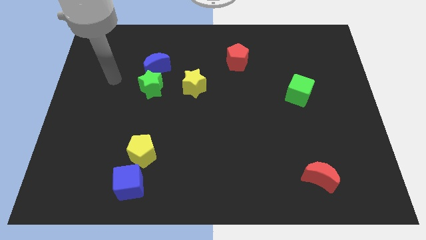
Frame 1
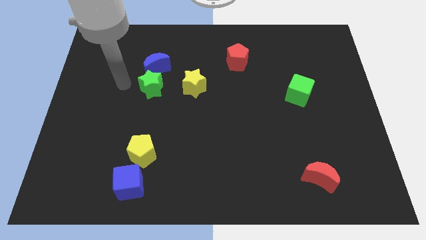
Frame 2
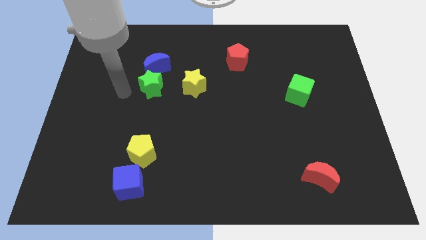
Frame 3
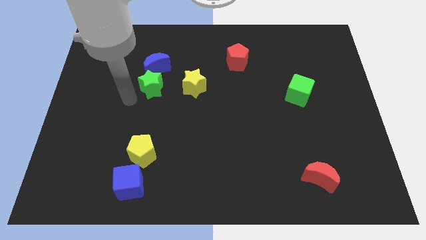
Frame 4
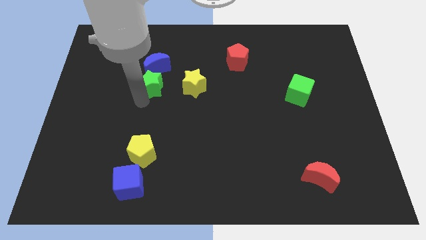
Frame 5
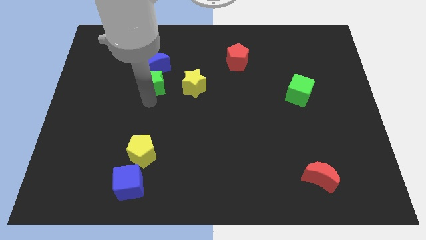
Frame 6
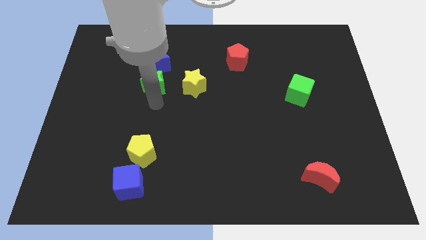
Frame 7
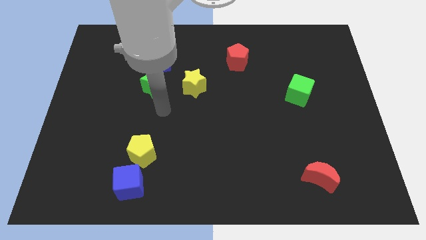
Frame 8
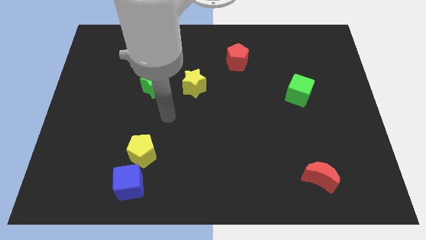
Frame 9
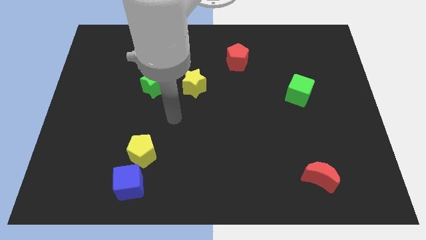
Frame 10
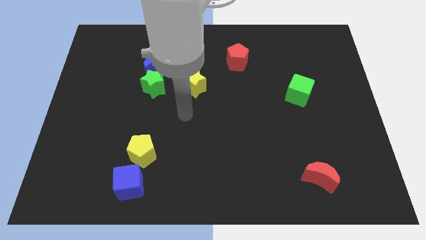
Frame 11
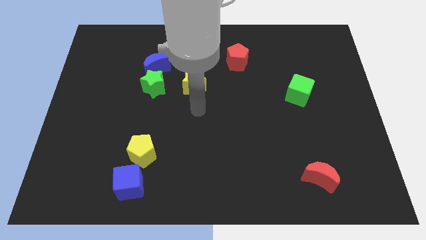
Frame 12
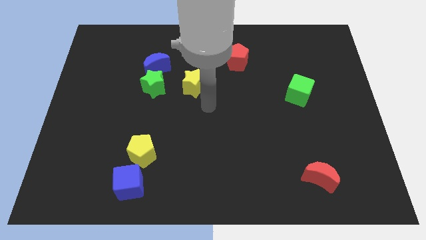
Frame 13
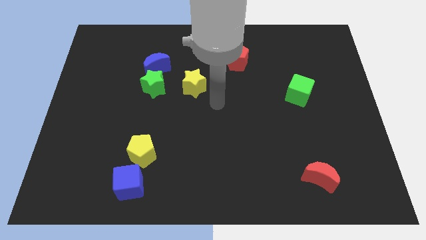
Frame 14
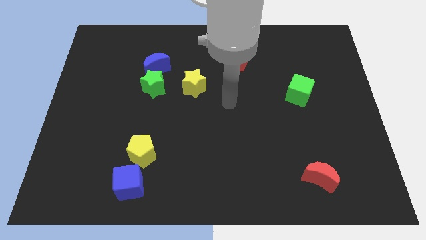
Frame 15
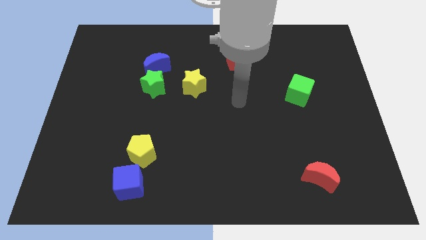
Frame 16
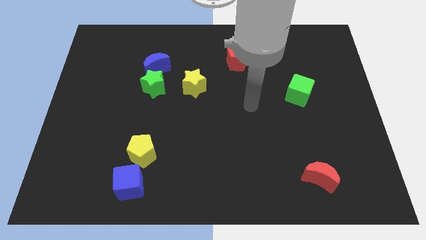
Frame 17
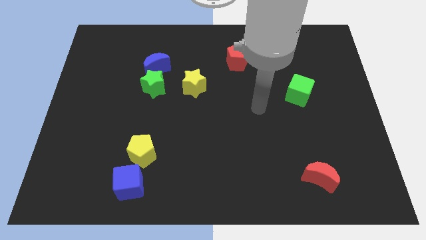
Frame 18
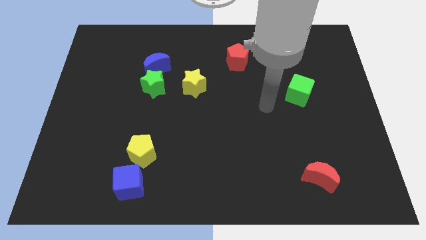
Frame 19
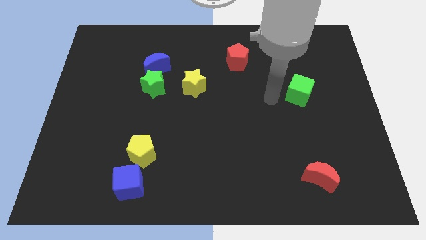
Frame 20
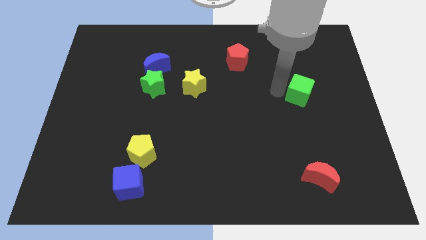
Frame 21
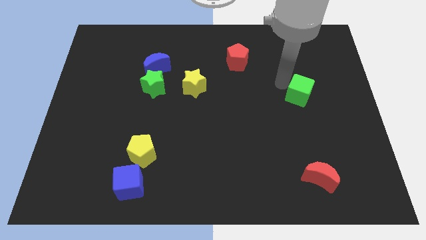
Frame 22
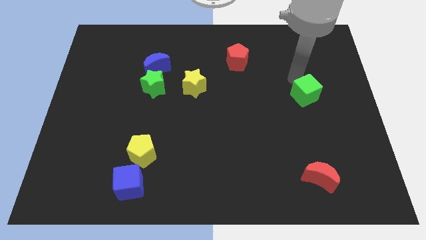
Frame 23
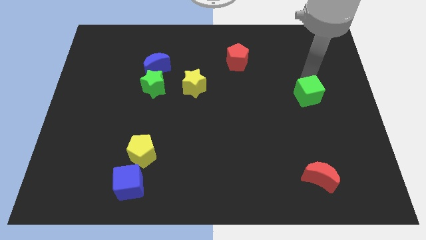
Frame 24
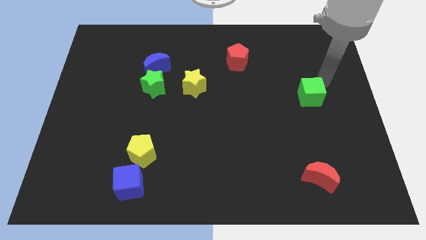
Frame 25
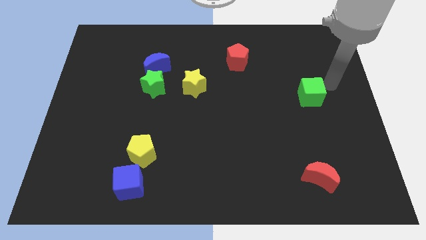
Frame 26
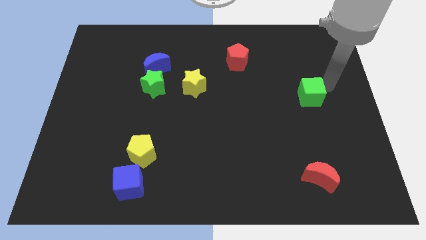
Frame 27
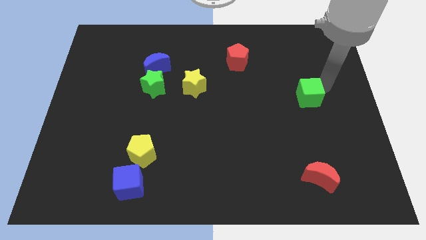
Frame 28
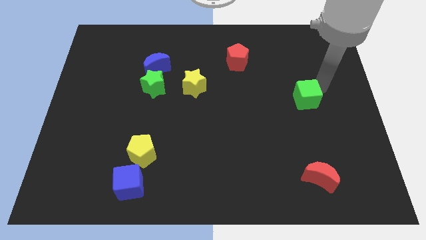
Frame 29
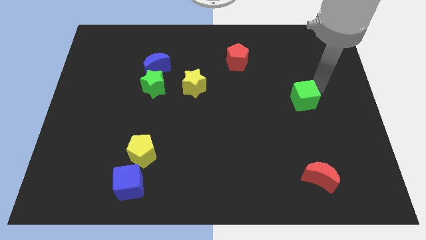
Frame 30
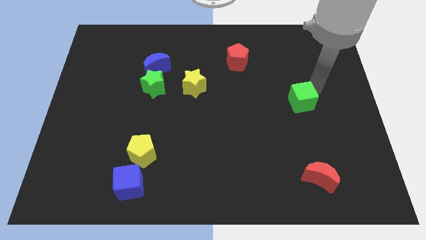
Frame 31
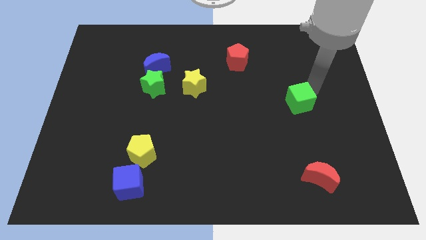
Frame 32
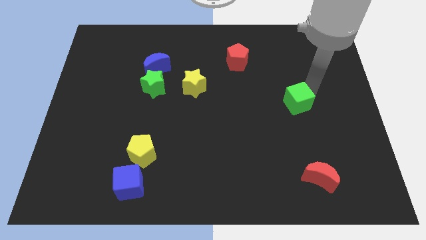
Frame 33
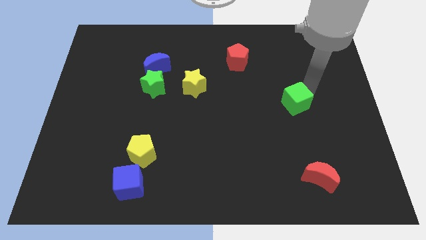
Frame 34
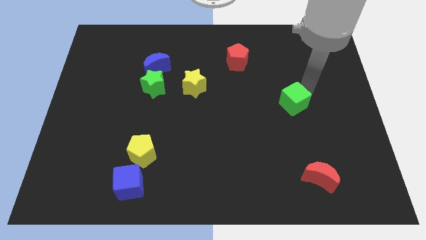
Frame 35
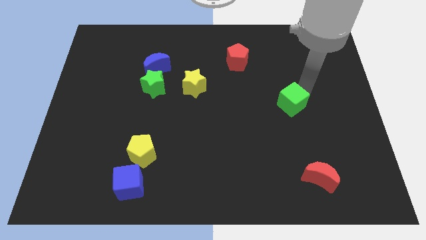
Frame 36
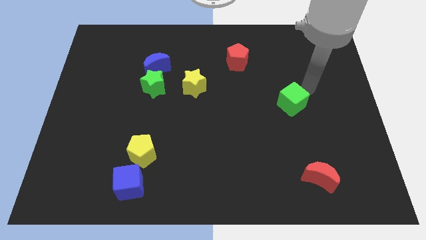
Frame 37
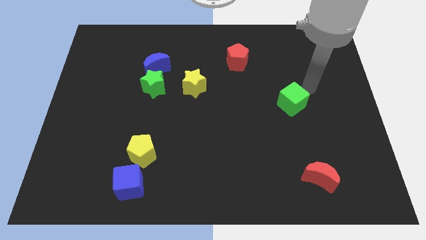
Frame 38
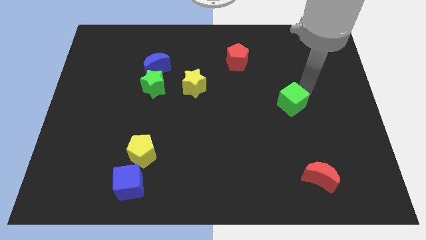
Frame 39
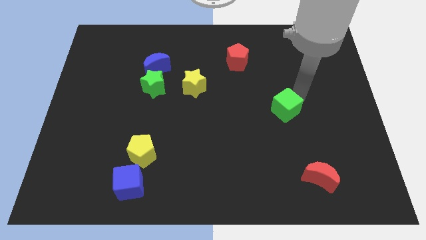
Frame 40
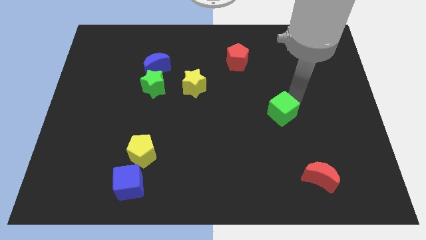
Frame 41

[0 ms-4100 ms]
slightly push the green cube down and left diagonally

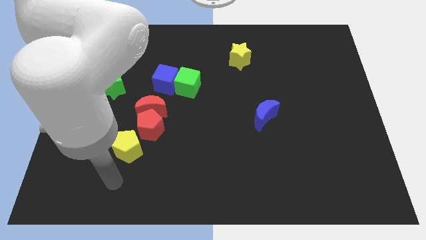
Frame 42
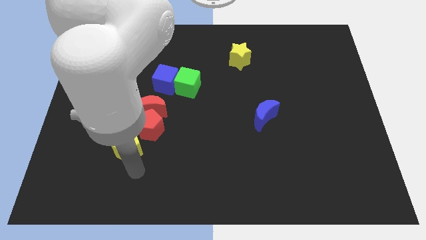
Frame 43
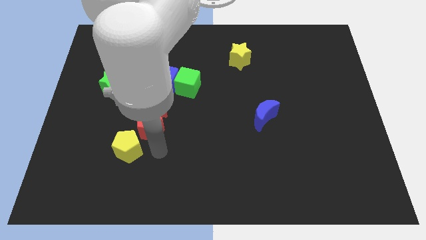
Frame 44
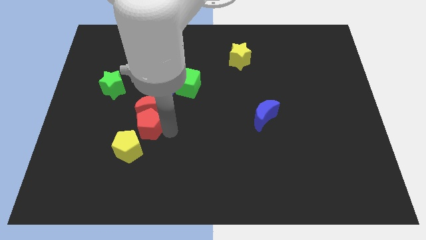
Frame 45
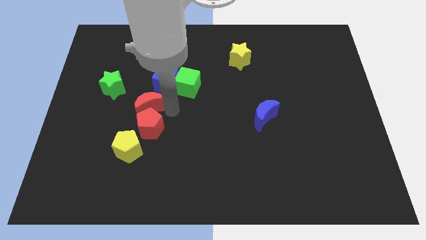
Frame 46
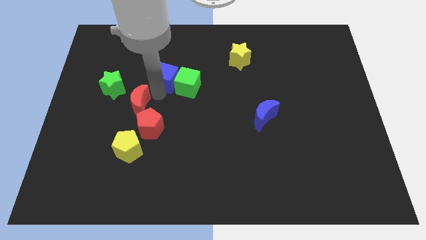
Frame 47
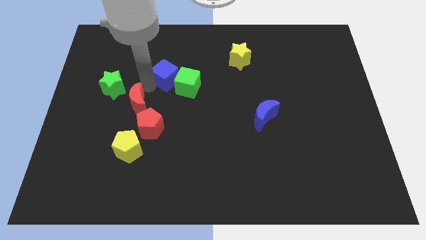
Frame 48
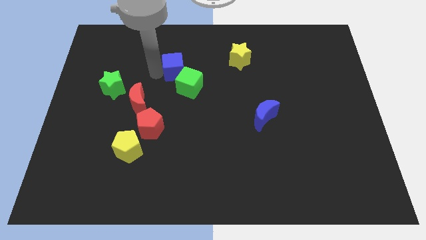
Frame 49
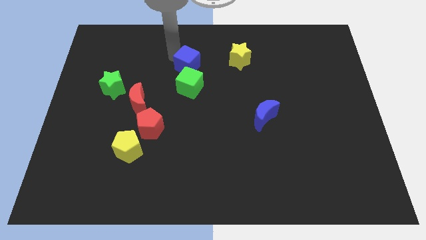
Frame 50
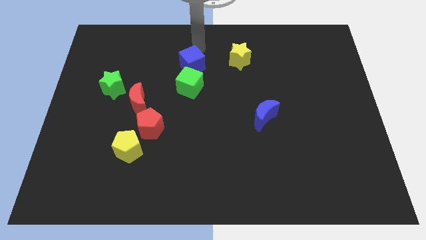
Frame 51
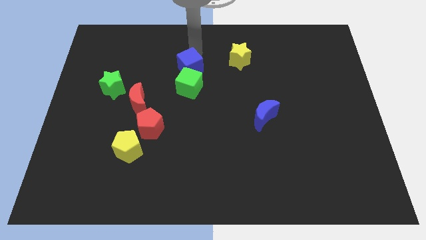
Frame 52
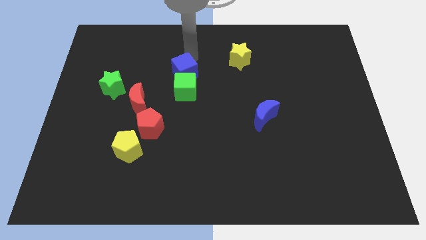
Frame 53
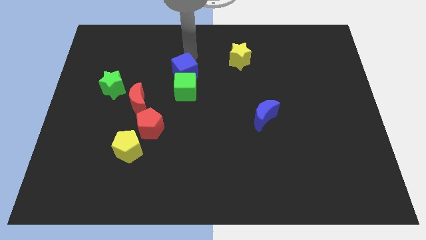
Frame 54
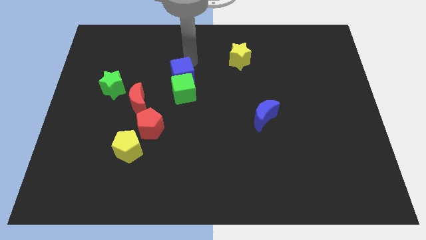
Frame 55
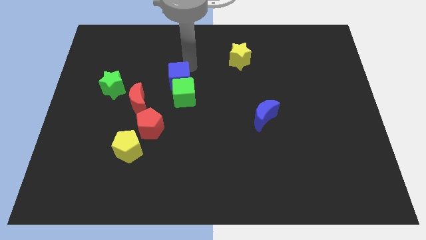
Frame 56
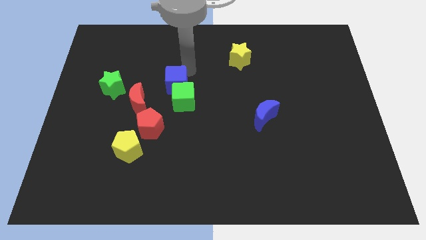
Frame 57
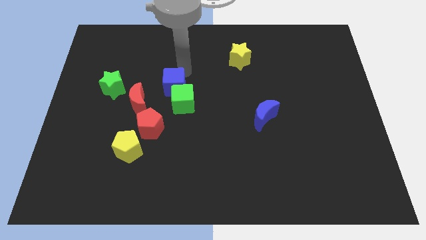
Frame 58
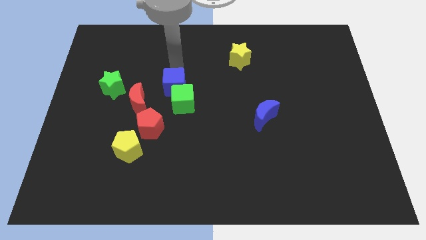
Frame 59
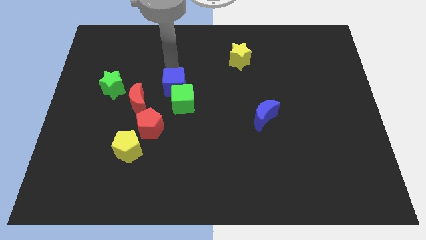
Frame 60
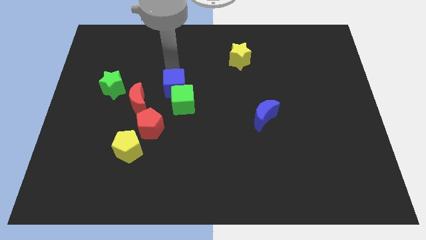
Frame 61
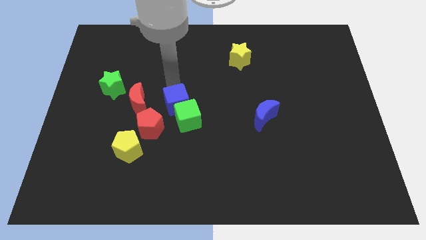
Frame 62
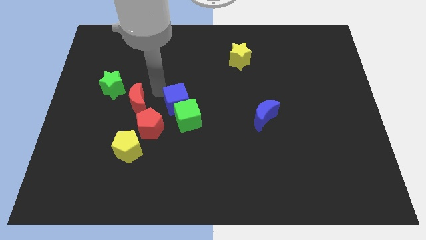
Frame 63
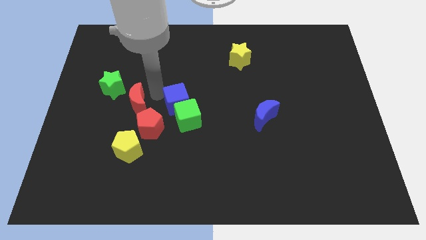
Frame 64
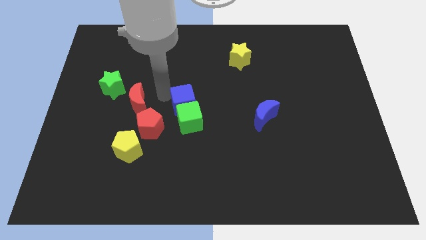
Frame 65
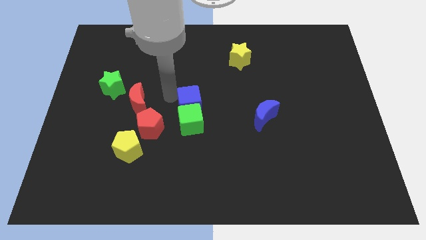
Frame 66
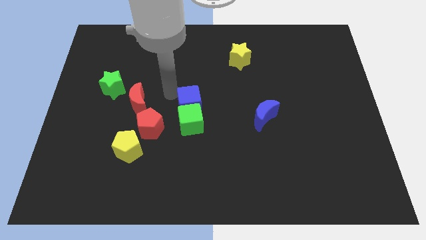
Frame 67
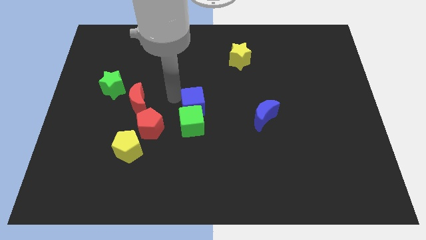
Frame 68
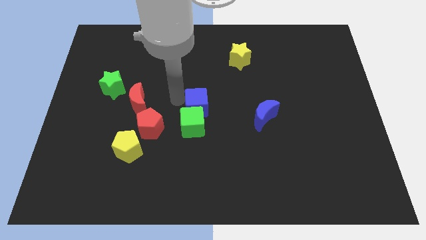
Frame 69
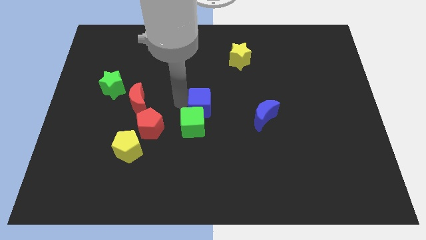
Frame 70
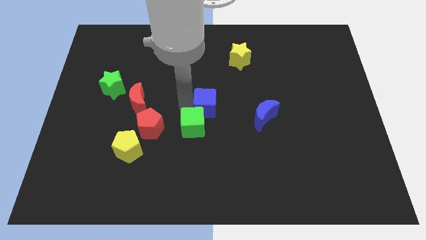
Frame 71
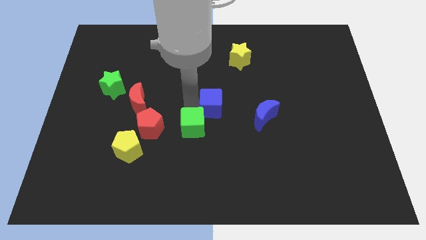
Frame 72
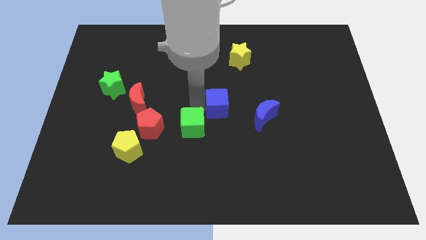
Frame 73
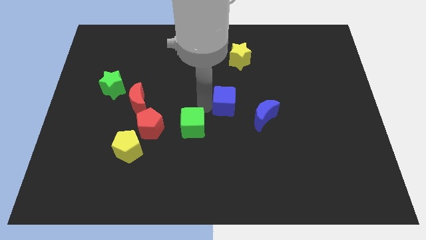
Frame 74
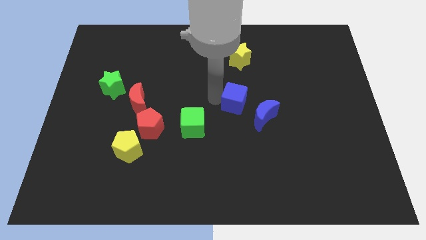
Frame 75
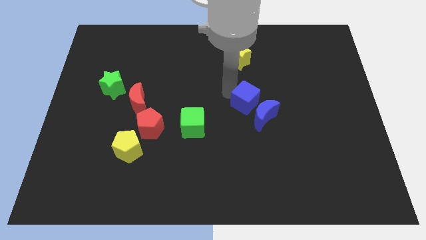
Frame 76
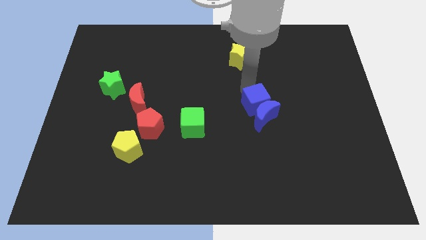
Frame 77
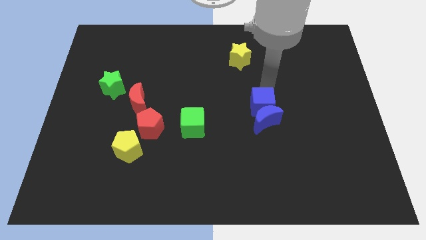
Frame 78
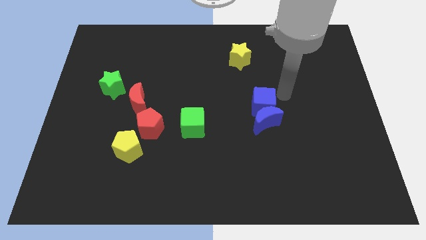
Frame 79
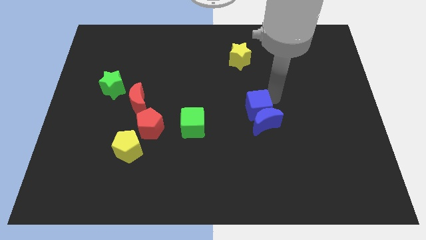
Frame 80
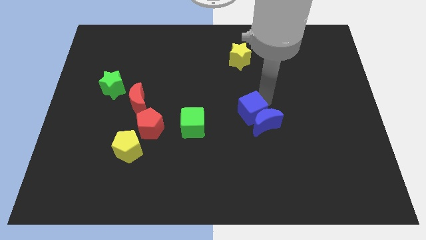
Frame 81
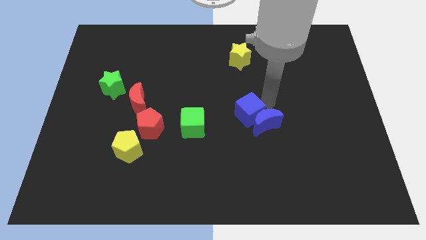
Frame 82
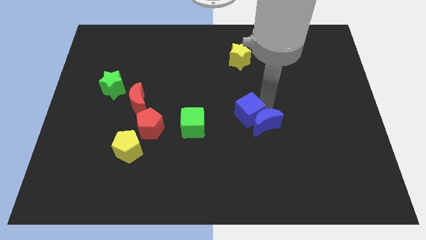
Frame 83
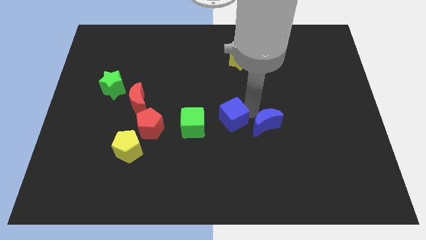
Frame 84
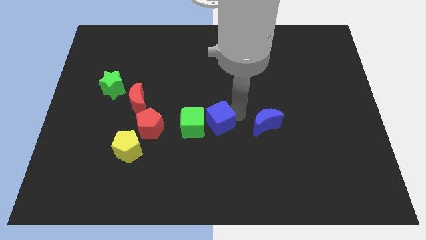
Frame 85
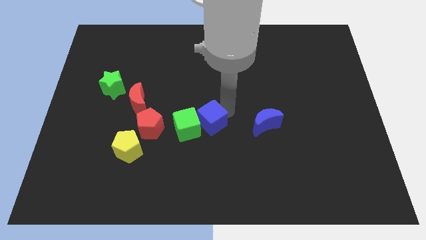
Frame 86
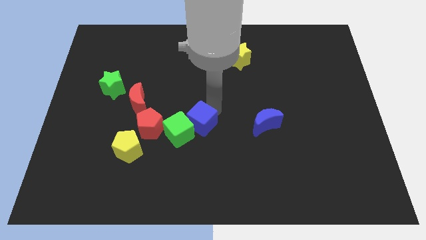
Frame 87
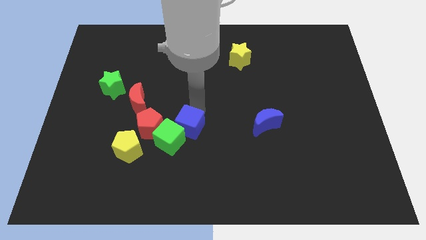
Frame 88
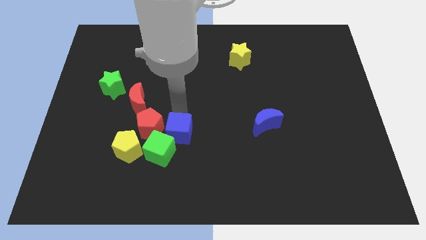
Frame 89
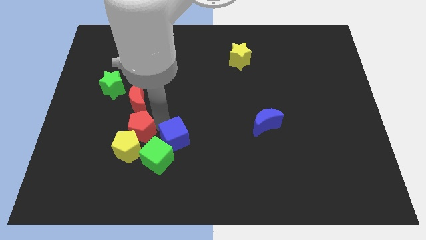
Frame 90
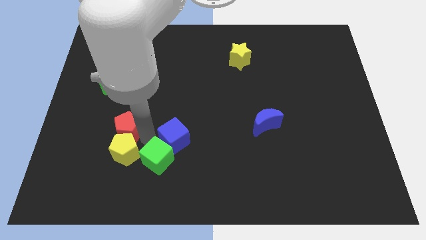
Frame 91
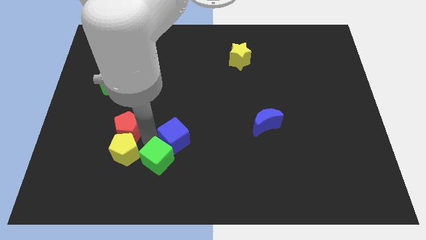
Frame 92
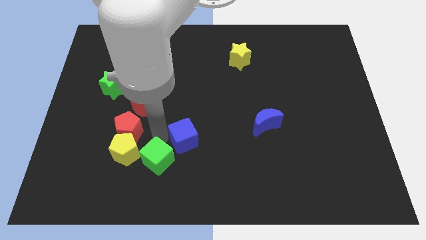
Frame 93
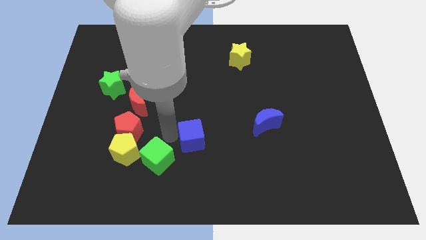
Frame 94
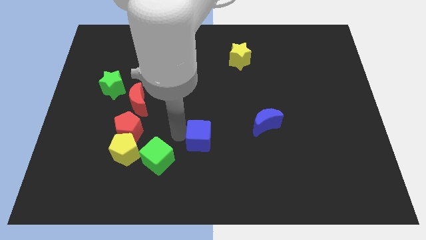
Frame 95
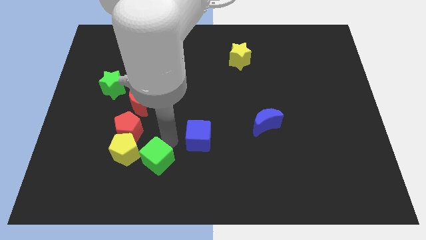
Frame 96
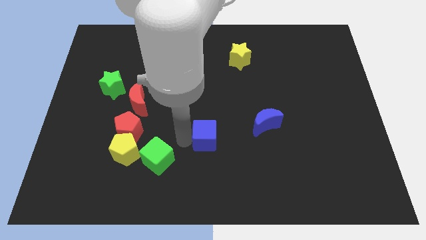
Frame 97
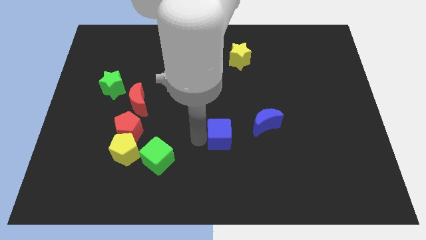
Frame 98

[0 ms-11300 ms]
slide the blue cube downwards and then to the right
